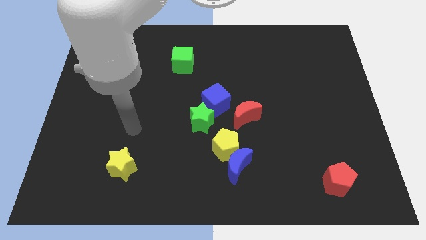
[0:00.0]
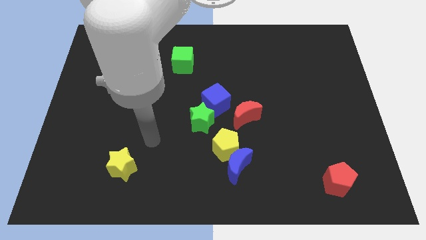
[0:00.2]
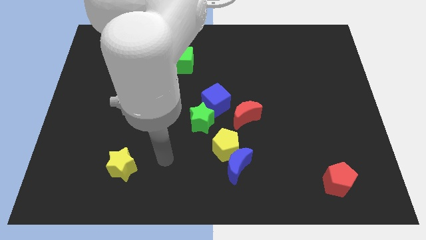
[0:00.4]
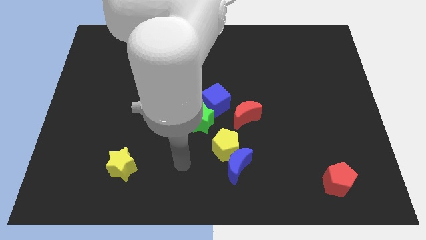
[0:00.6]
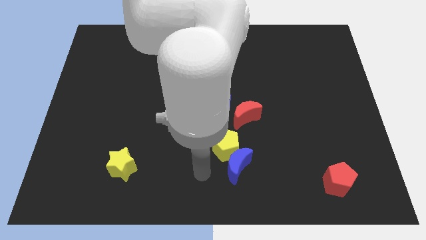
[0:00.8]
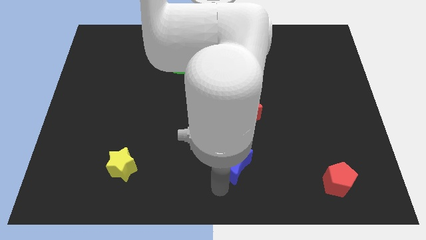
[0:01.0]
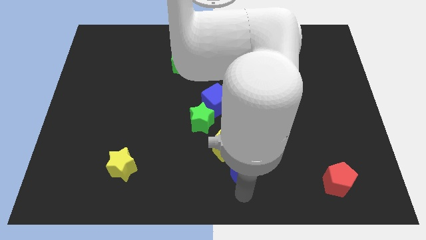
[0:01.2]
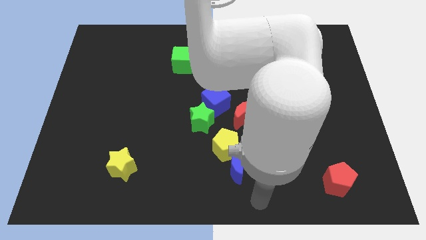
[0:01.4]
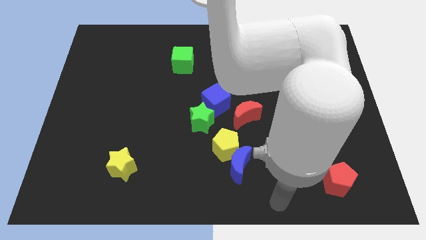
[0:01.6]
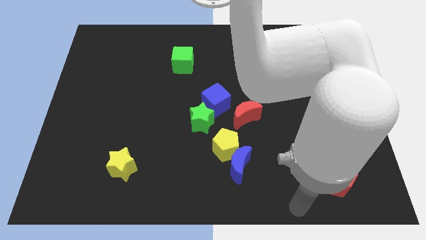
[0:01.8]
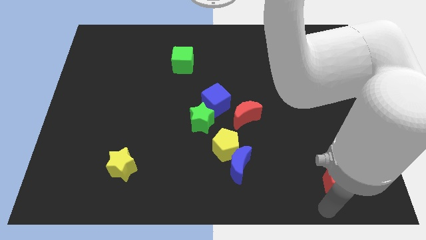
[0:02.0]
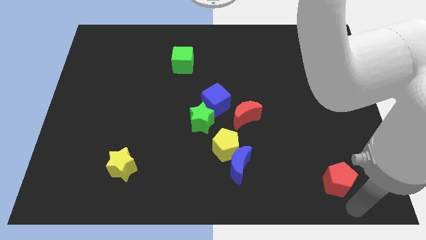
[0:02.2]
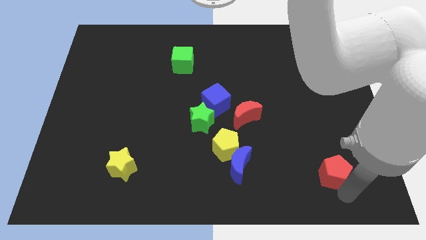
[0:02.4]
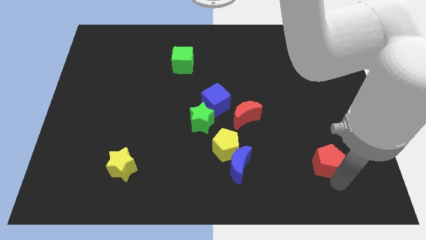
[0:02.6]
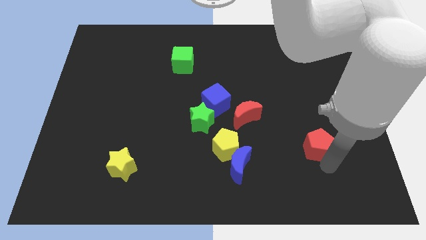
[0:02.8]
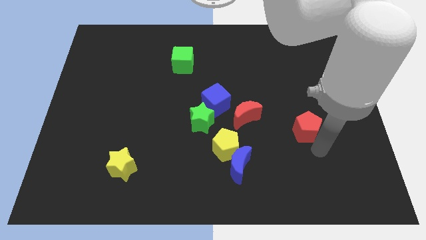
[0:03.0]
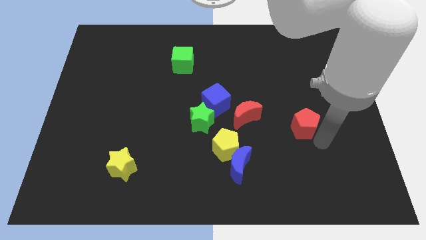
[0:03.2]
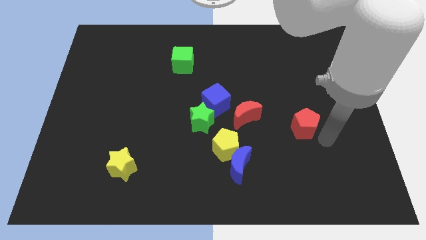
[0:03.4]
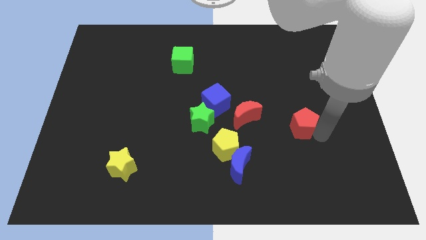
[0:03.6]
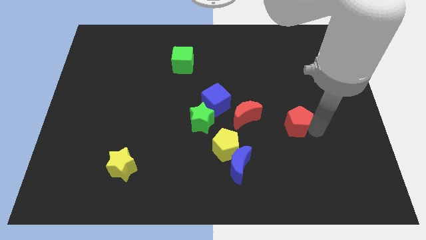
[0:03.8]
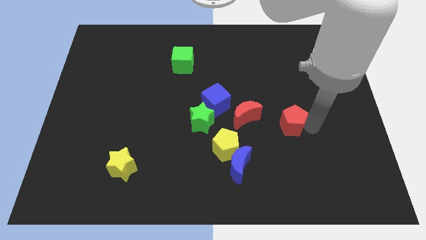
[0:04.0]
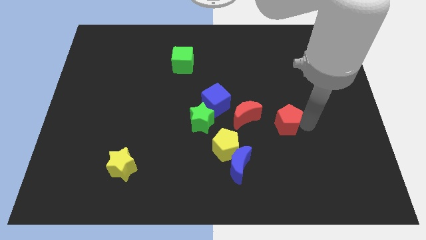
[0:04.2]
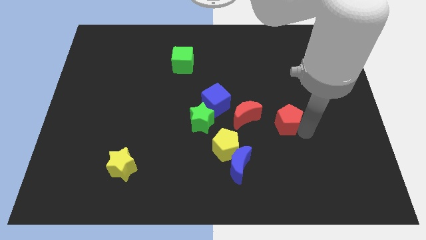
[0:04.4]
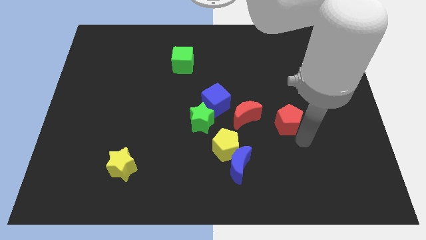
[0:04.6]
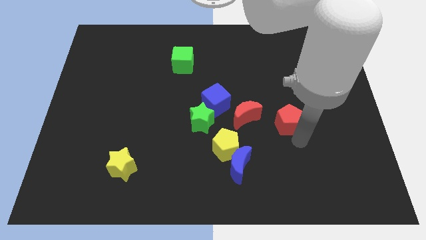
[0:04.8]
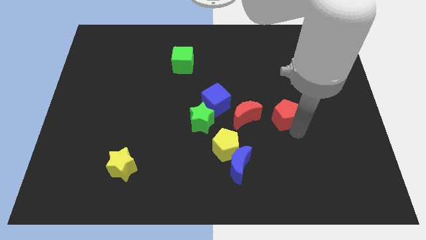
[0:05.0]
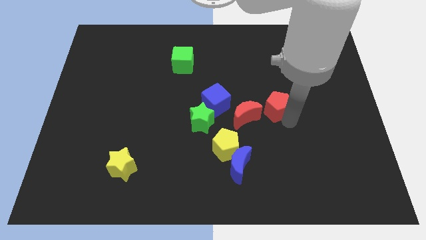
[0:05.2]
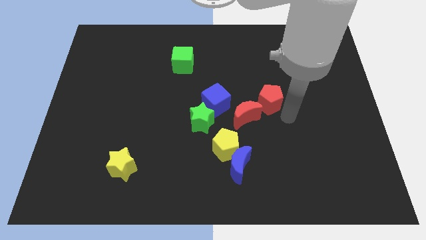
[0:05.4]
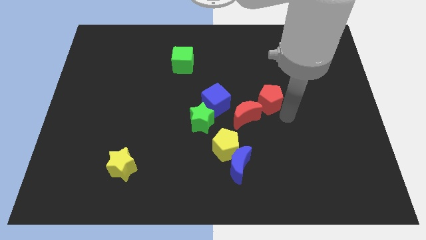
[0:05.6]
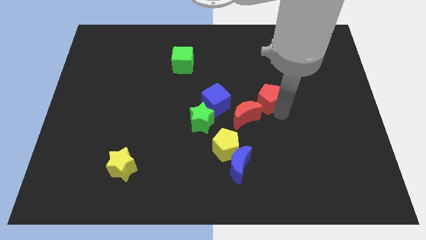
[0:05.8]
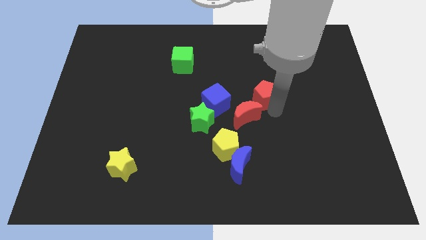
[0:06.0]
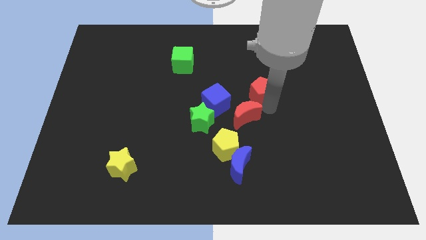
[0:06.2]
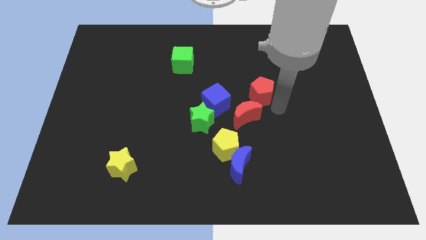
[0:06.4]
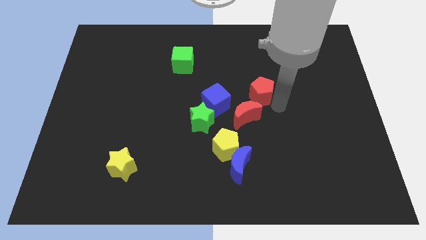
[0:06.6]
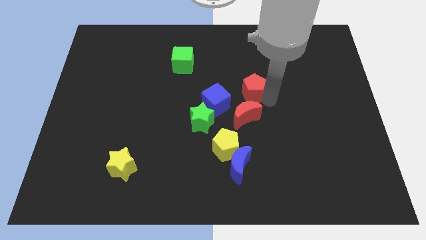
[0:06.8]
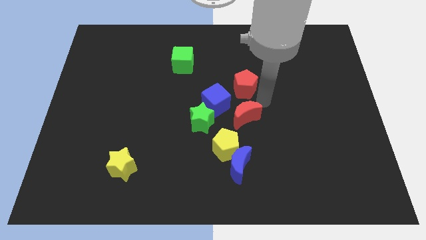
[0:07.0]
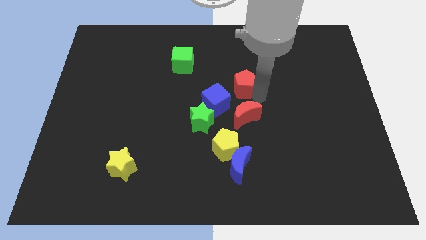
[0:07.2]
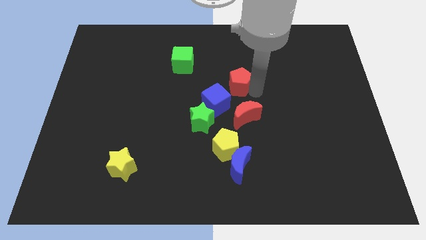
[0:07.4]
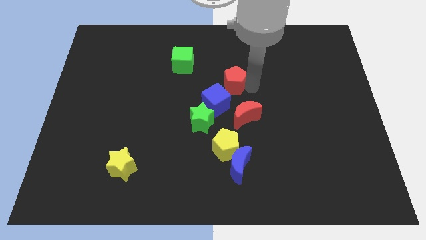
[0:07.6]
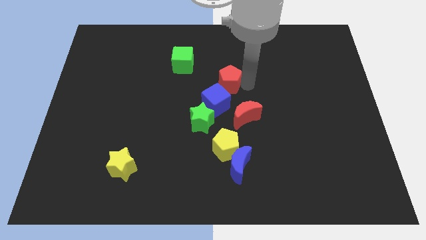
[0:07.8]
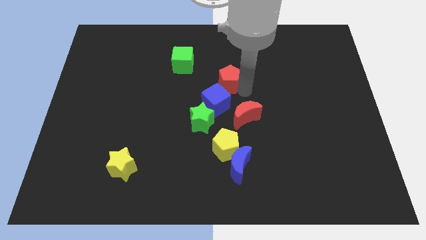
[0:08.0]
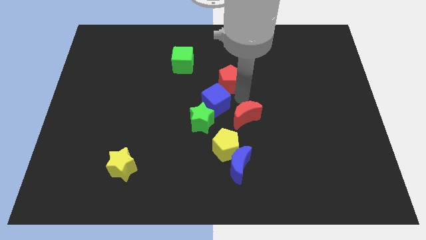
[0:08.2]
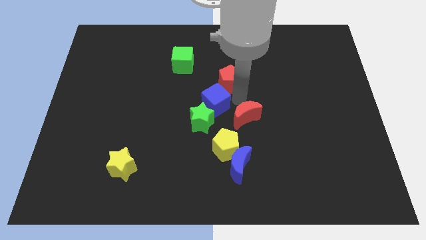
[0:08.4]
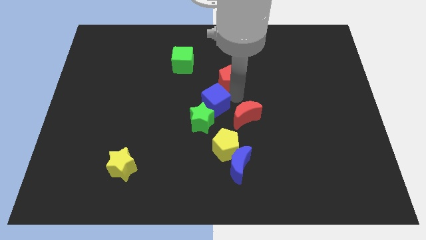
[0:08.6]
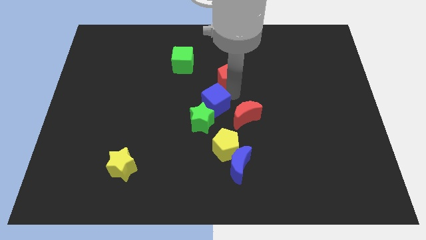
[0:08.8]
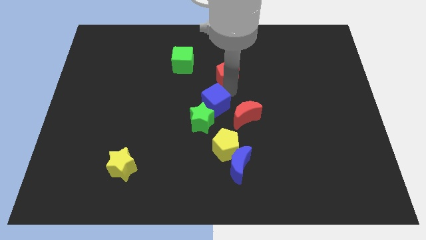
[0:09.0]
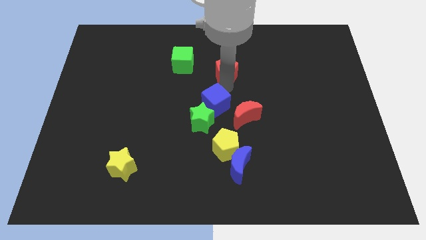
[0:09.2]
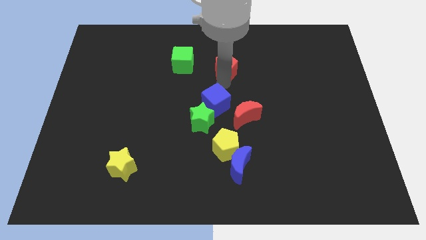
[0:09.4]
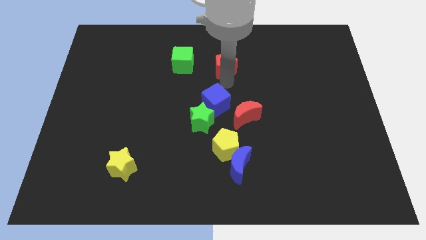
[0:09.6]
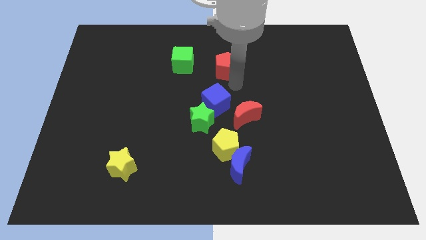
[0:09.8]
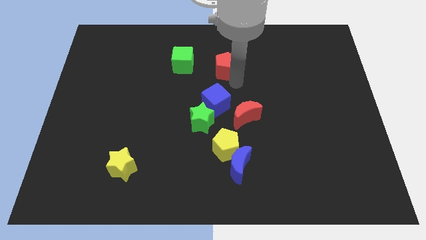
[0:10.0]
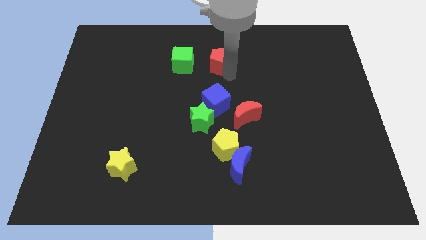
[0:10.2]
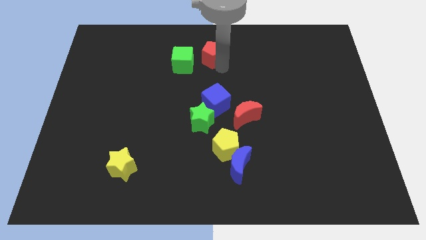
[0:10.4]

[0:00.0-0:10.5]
push the red pentagon to the top

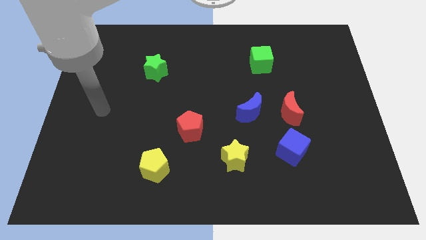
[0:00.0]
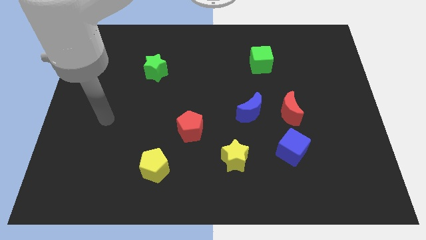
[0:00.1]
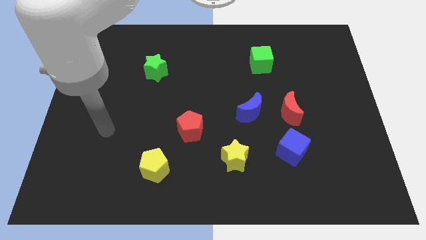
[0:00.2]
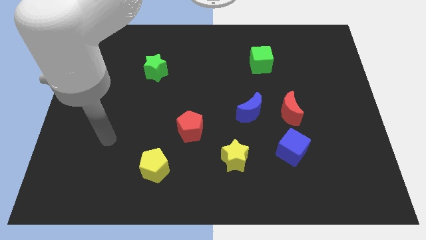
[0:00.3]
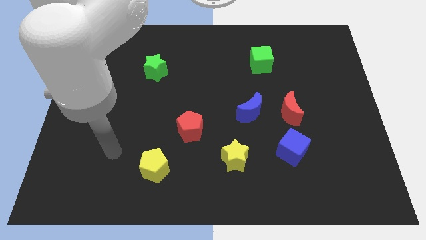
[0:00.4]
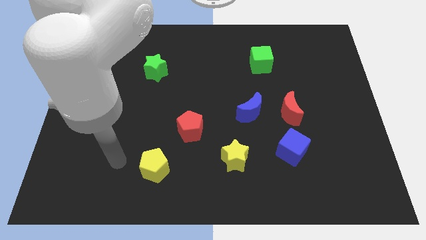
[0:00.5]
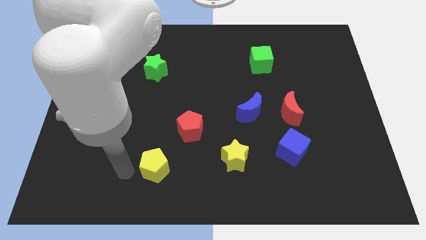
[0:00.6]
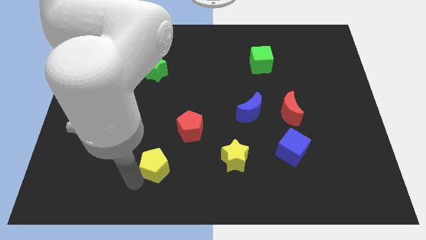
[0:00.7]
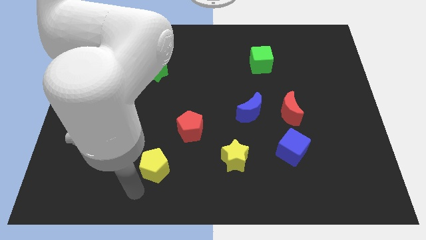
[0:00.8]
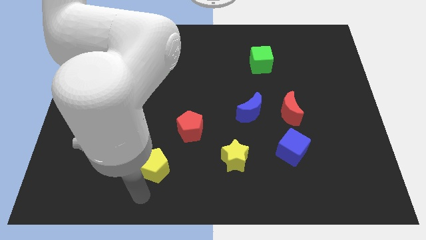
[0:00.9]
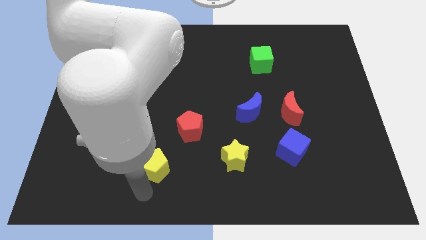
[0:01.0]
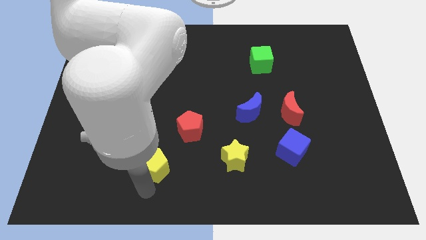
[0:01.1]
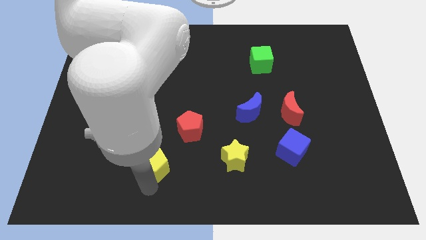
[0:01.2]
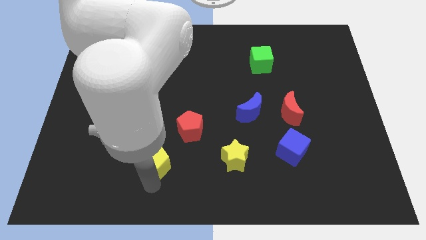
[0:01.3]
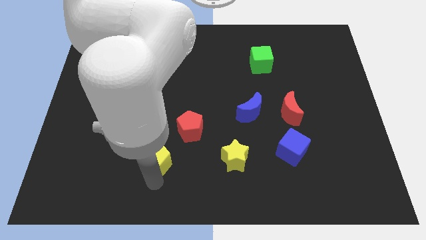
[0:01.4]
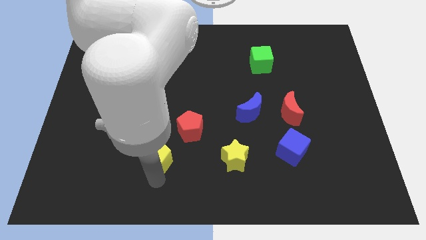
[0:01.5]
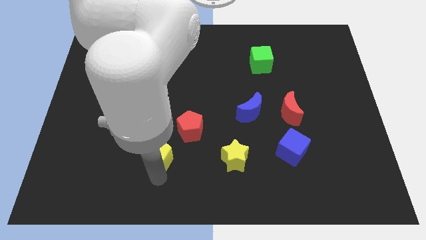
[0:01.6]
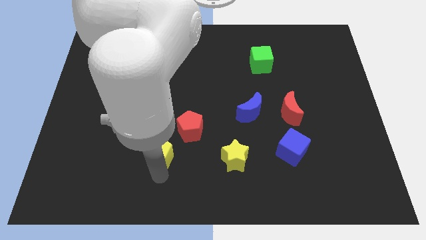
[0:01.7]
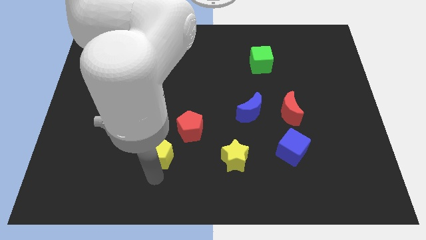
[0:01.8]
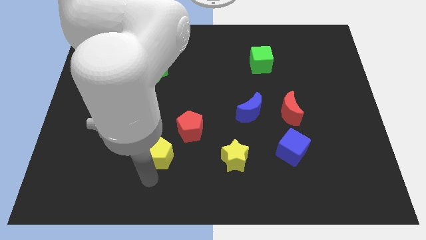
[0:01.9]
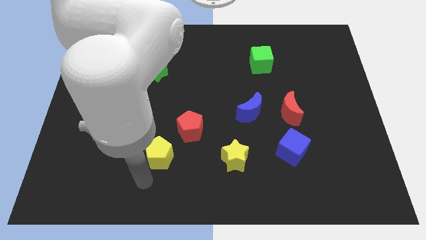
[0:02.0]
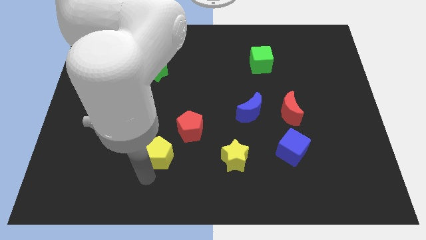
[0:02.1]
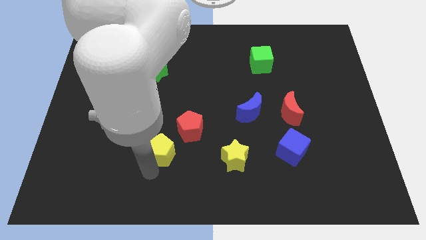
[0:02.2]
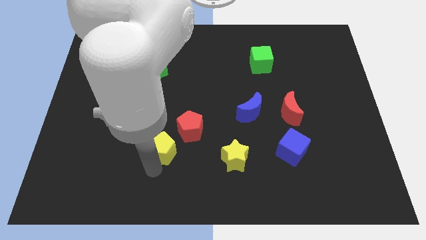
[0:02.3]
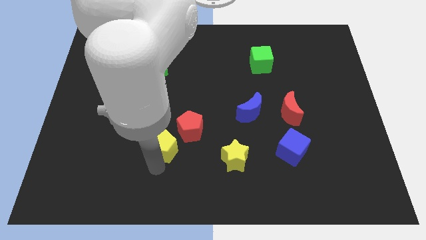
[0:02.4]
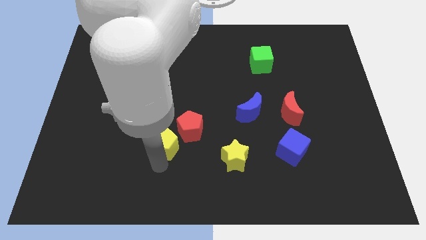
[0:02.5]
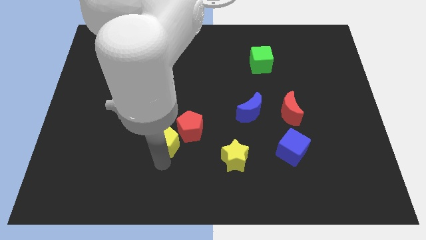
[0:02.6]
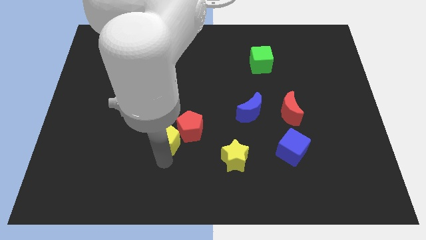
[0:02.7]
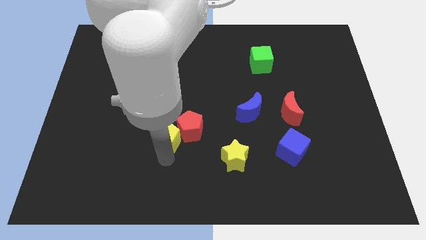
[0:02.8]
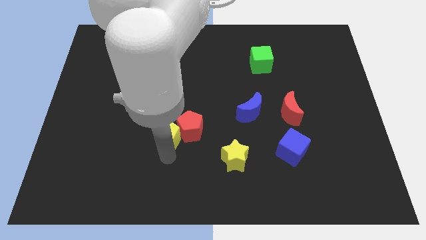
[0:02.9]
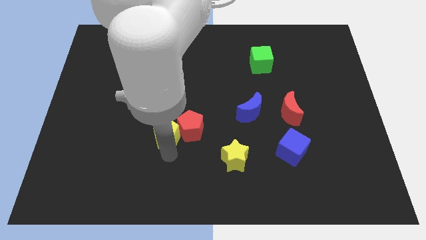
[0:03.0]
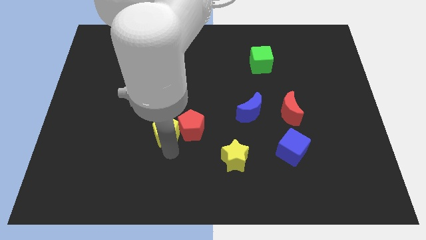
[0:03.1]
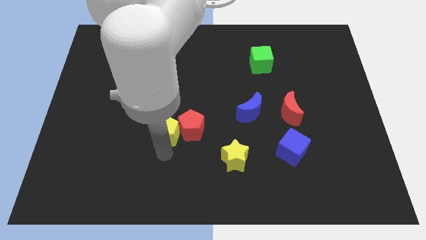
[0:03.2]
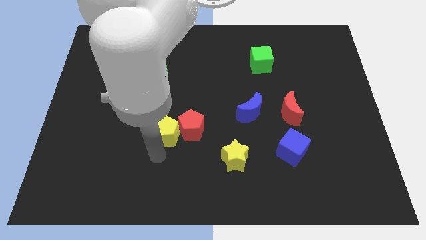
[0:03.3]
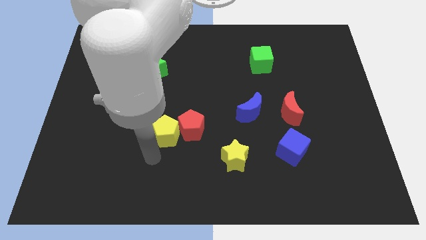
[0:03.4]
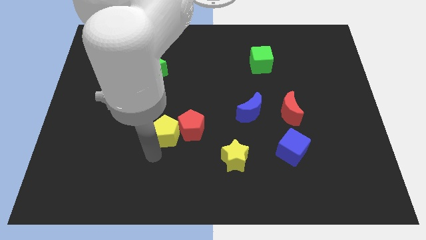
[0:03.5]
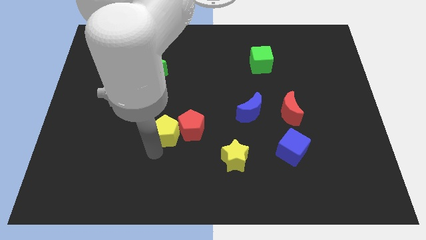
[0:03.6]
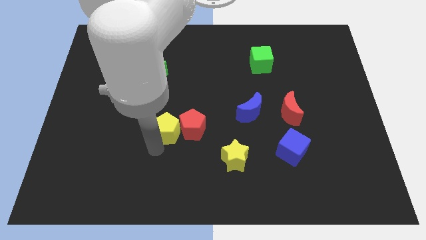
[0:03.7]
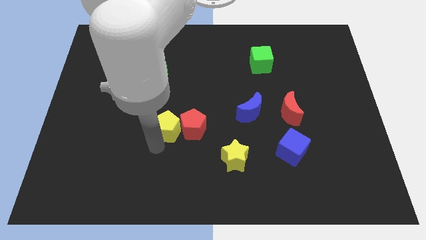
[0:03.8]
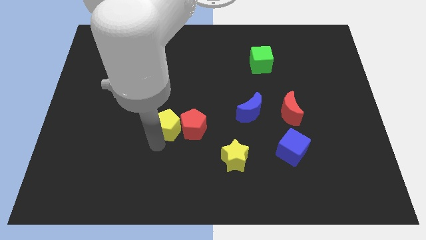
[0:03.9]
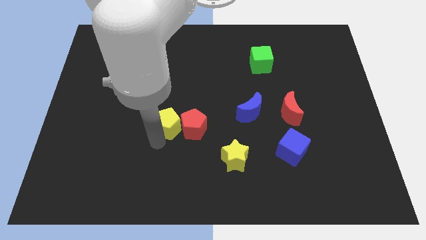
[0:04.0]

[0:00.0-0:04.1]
push the yellow pentagon to the middle of the board
